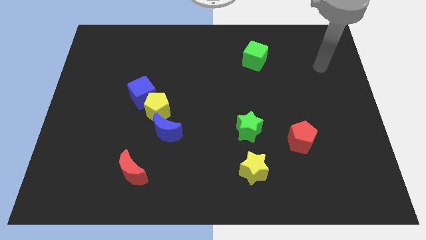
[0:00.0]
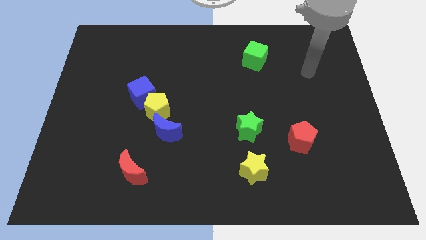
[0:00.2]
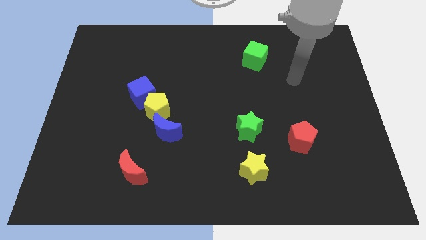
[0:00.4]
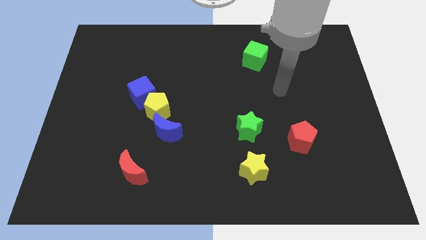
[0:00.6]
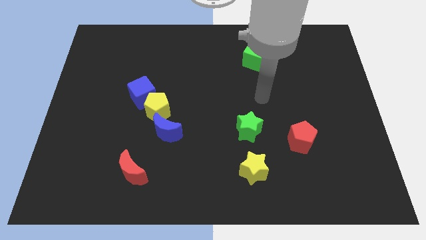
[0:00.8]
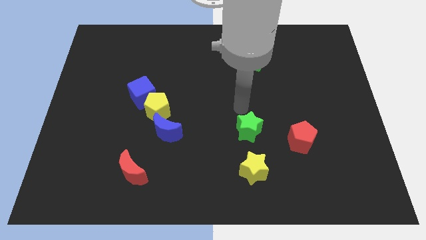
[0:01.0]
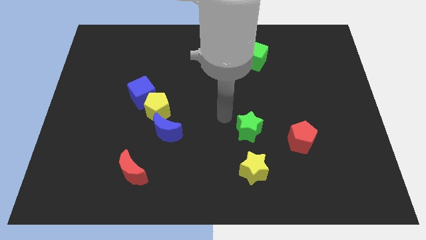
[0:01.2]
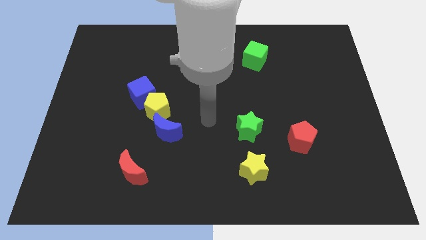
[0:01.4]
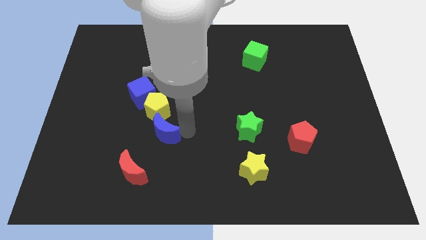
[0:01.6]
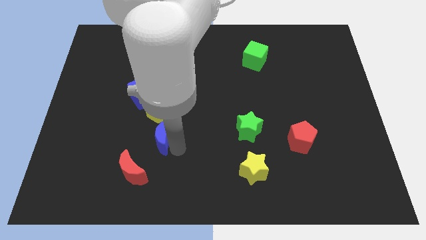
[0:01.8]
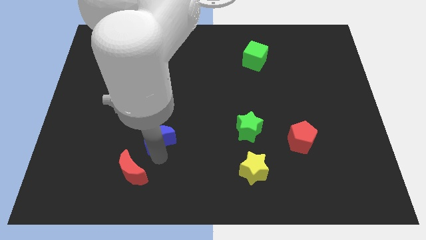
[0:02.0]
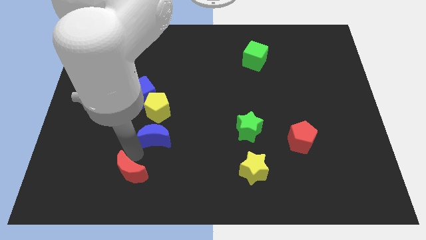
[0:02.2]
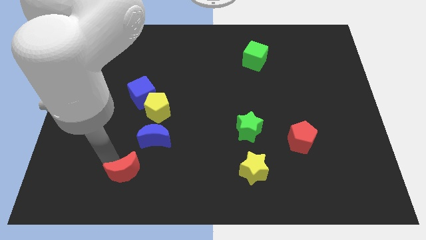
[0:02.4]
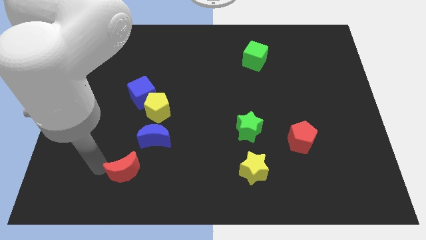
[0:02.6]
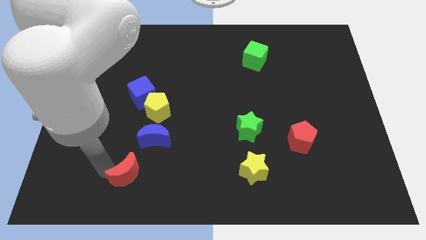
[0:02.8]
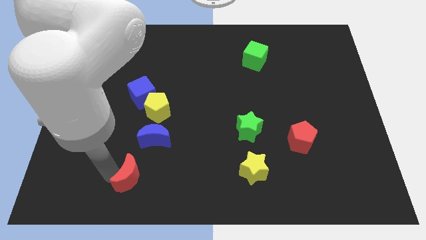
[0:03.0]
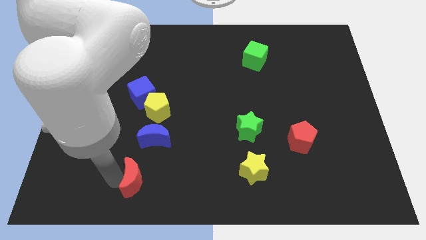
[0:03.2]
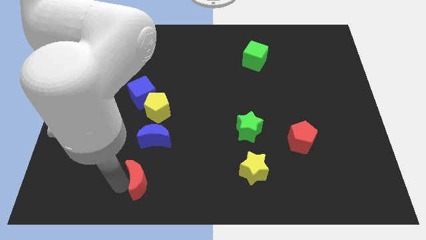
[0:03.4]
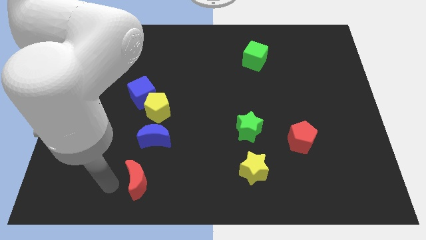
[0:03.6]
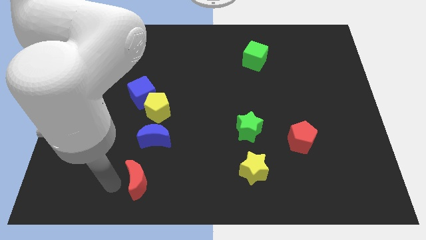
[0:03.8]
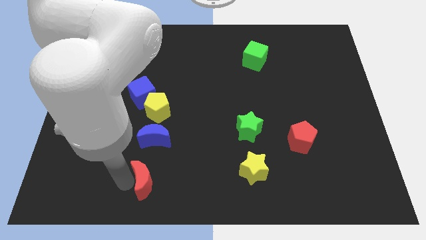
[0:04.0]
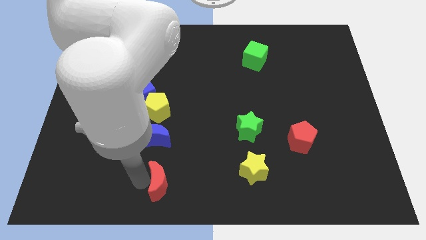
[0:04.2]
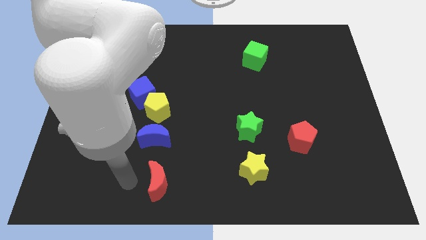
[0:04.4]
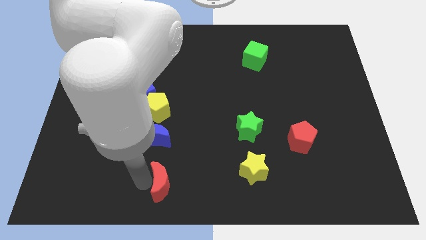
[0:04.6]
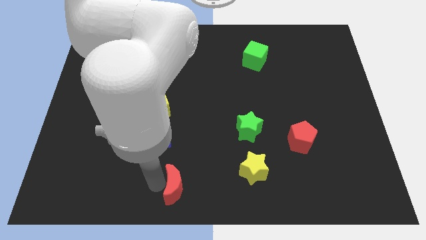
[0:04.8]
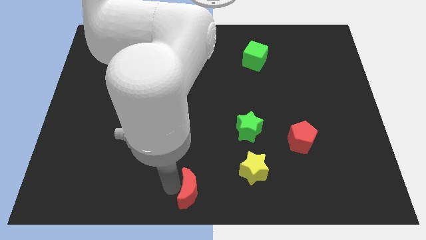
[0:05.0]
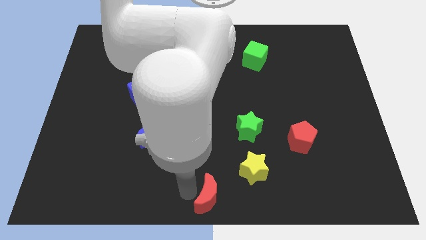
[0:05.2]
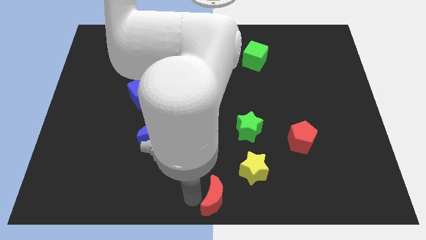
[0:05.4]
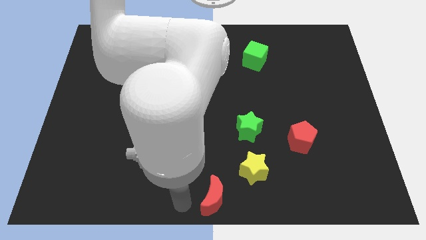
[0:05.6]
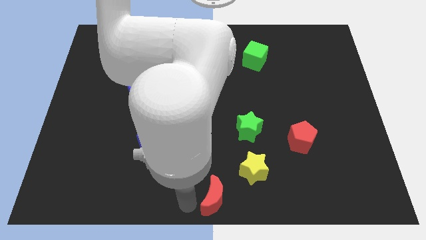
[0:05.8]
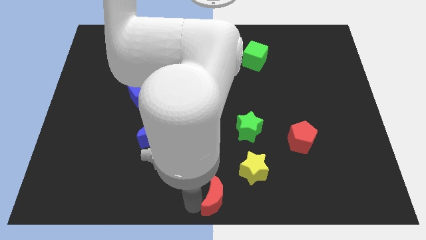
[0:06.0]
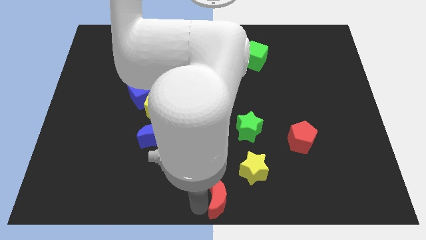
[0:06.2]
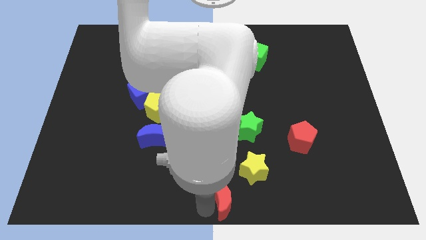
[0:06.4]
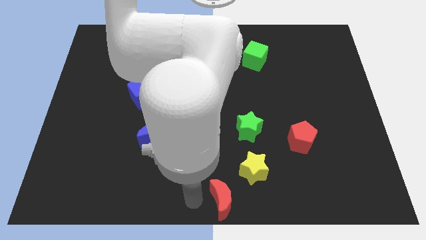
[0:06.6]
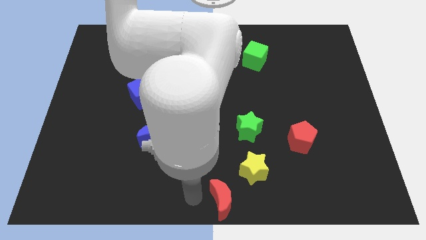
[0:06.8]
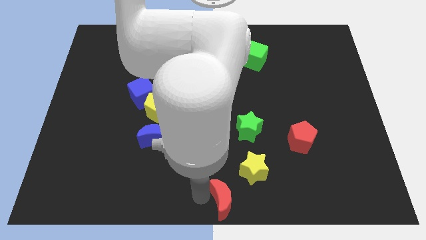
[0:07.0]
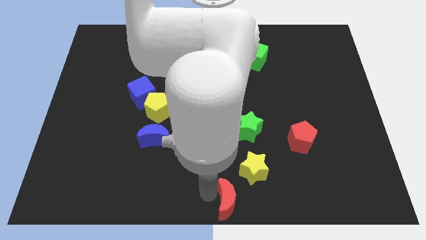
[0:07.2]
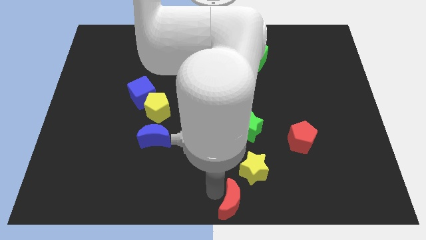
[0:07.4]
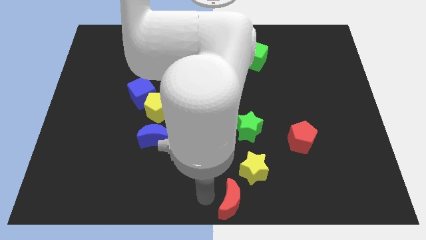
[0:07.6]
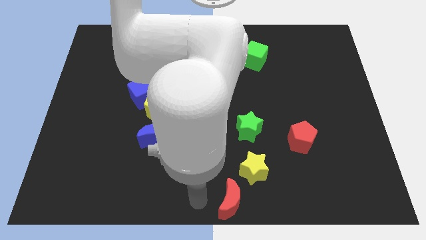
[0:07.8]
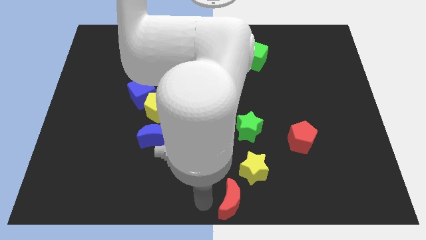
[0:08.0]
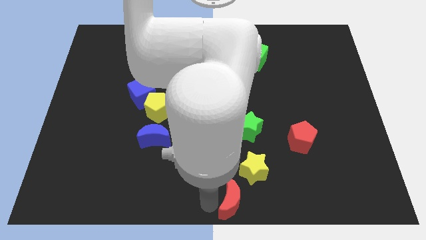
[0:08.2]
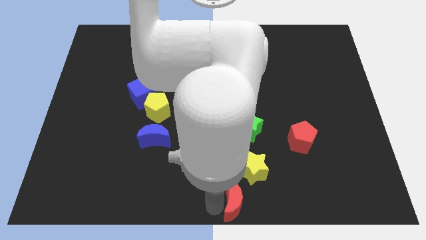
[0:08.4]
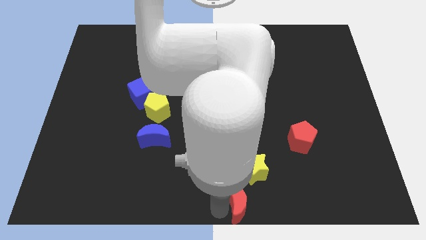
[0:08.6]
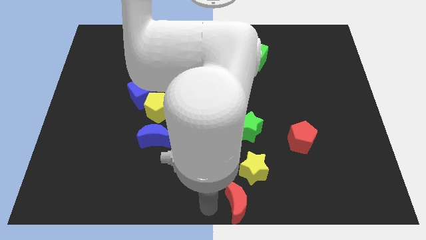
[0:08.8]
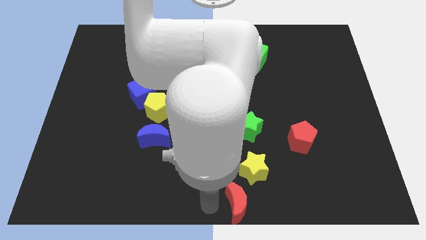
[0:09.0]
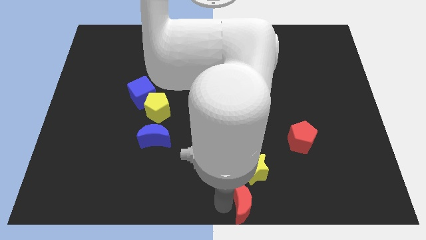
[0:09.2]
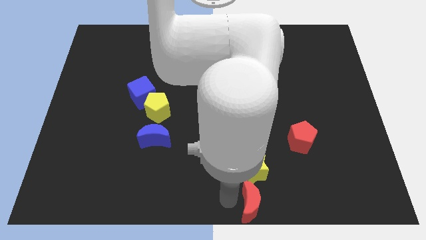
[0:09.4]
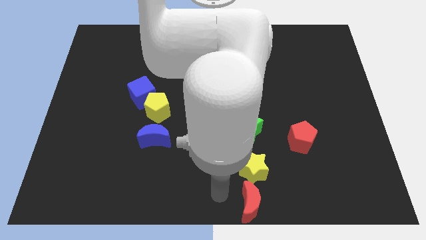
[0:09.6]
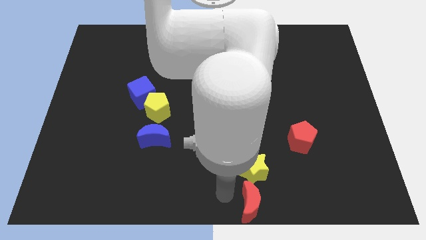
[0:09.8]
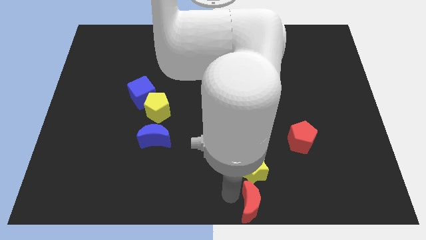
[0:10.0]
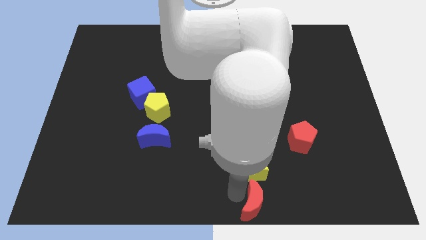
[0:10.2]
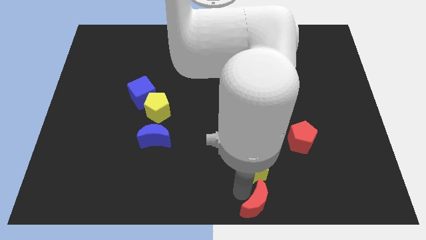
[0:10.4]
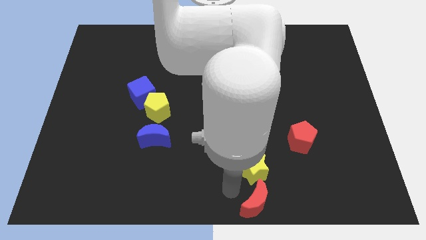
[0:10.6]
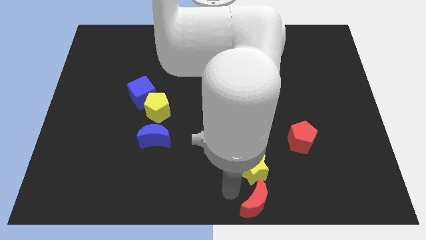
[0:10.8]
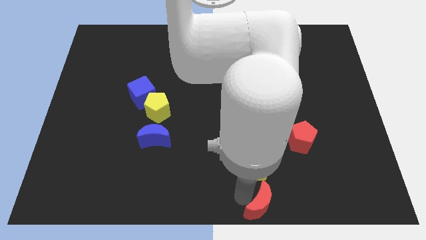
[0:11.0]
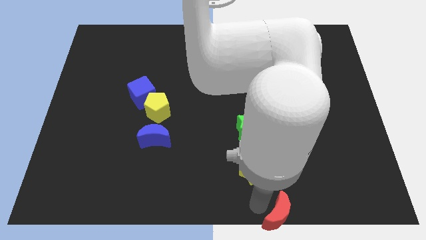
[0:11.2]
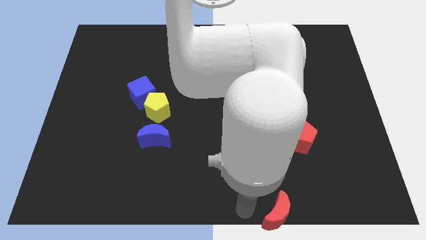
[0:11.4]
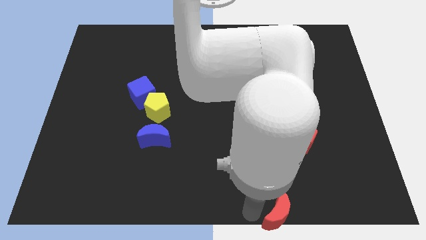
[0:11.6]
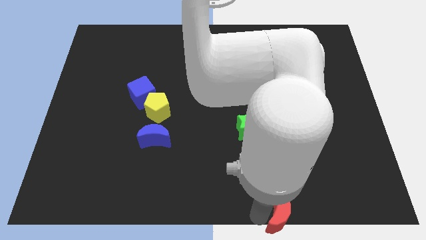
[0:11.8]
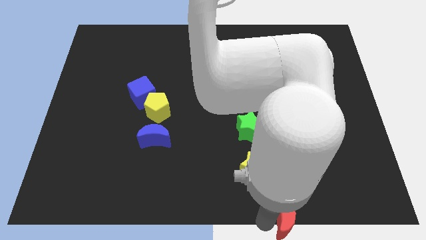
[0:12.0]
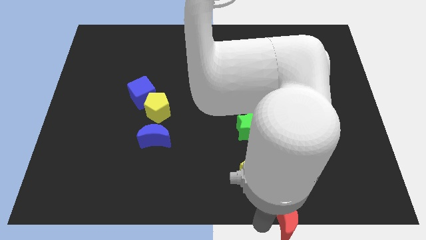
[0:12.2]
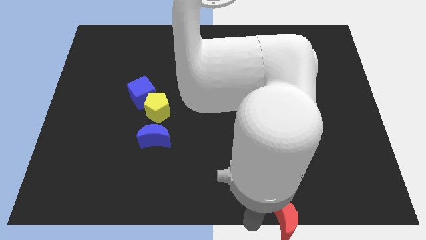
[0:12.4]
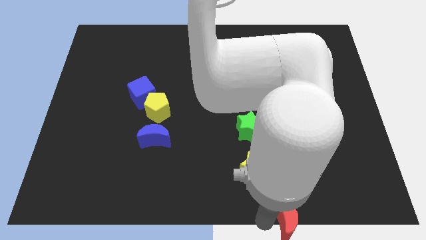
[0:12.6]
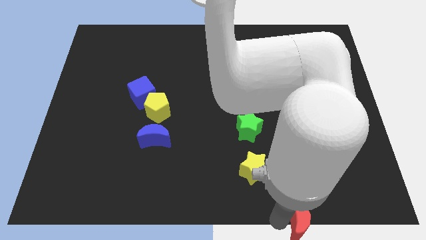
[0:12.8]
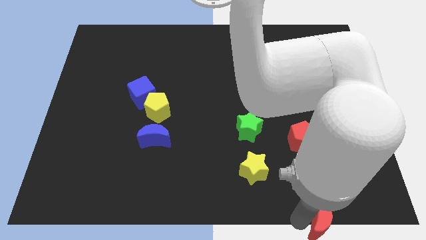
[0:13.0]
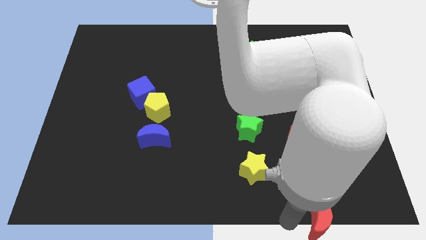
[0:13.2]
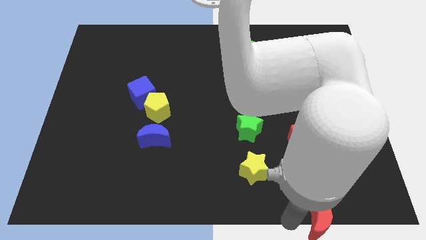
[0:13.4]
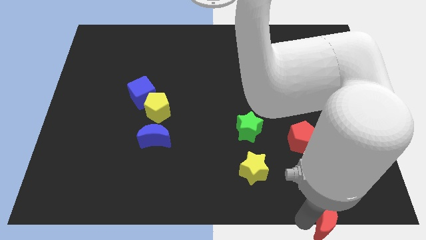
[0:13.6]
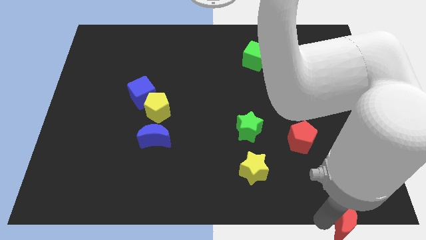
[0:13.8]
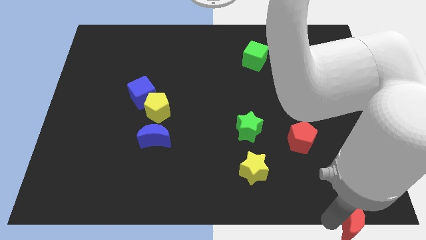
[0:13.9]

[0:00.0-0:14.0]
put the red moon to the lower right corner
